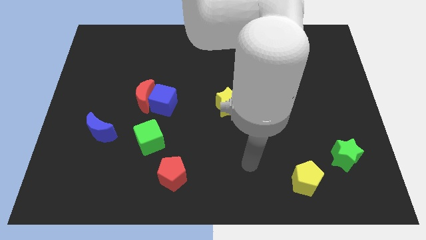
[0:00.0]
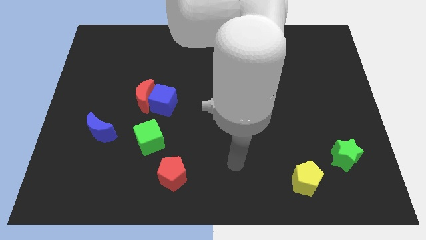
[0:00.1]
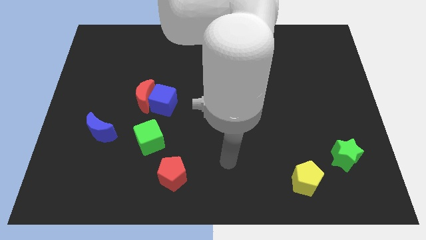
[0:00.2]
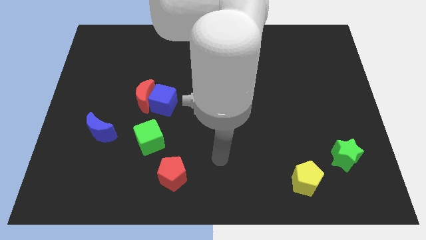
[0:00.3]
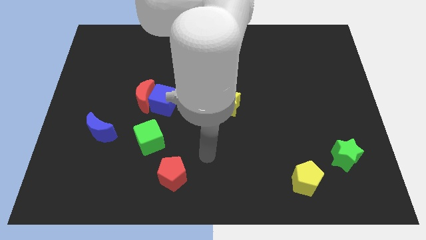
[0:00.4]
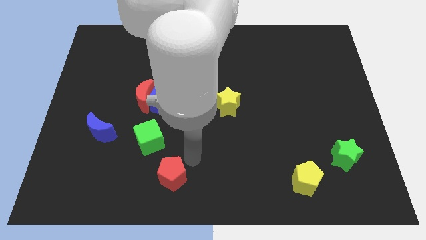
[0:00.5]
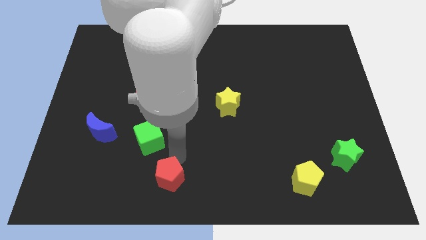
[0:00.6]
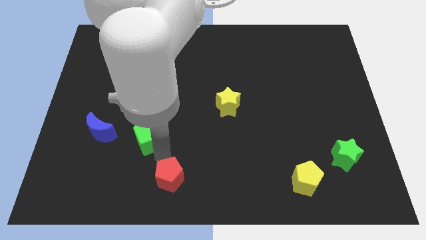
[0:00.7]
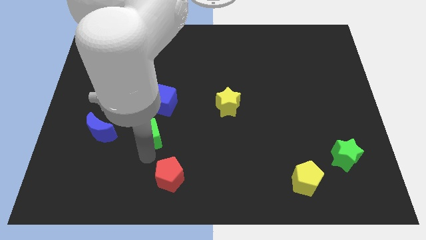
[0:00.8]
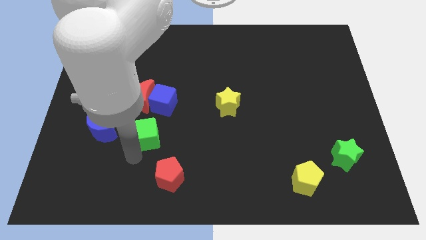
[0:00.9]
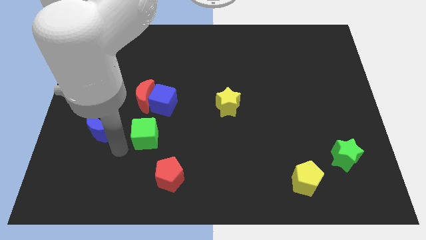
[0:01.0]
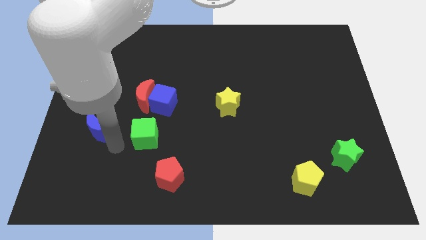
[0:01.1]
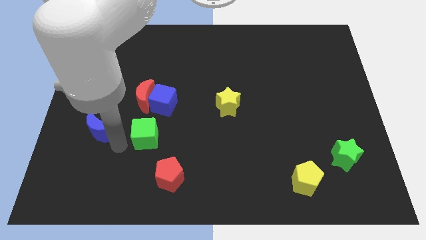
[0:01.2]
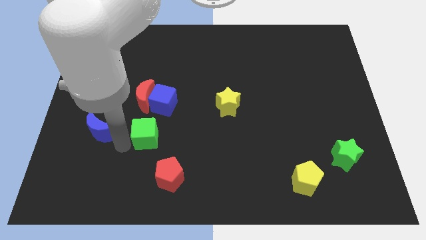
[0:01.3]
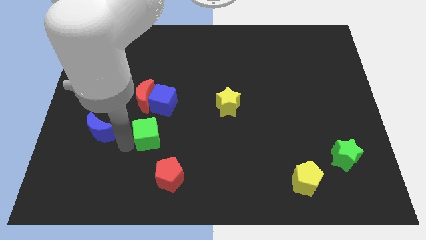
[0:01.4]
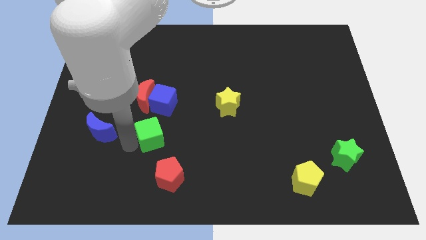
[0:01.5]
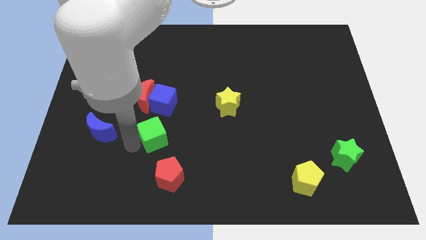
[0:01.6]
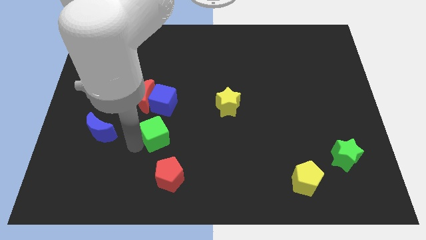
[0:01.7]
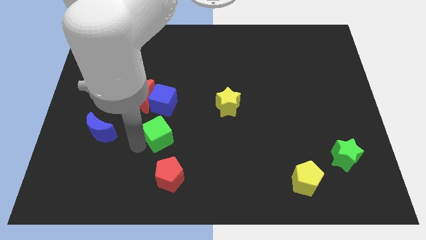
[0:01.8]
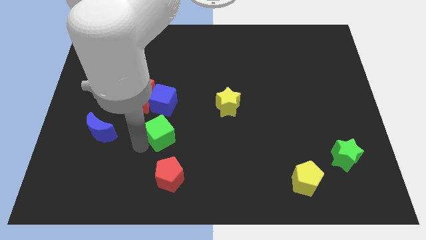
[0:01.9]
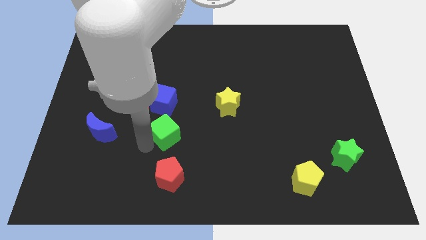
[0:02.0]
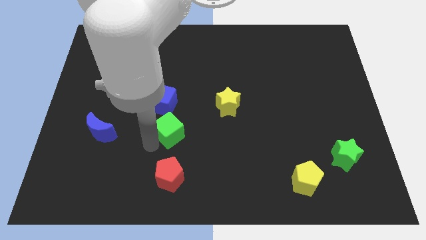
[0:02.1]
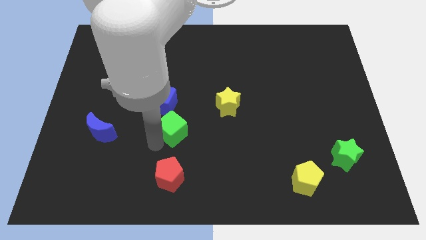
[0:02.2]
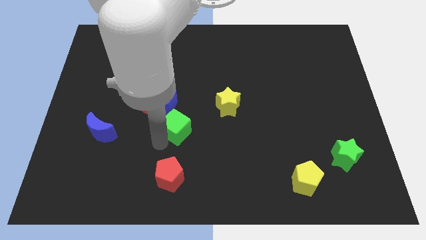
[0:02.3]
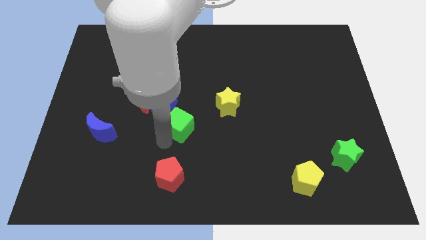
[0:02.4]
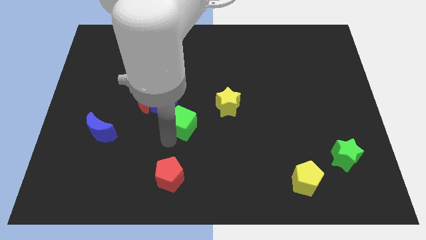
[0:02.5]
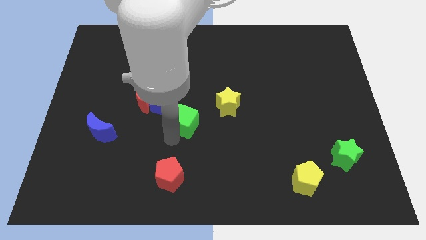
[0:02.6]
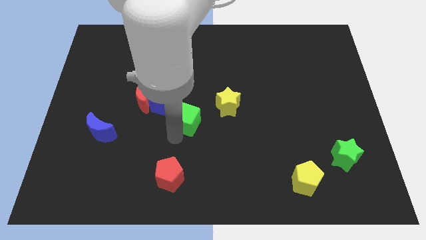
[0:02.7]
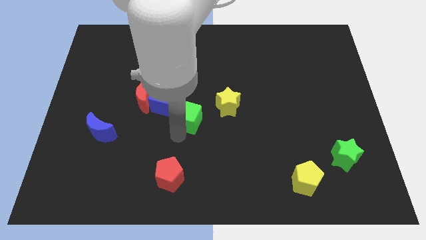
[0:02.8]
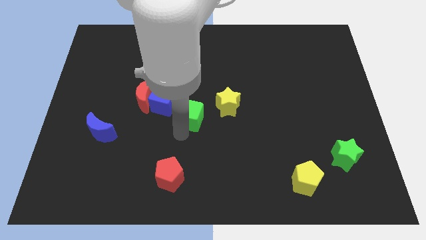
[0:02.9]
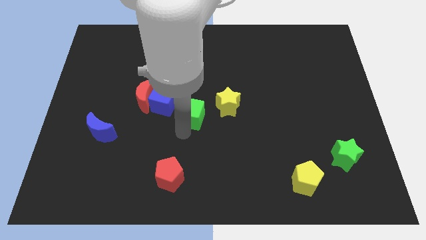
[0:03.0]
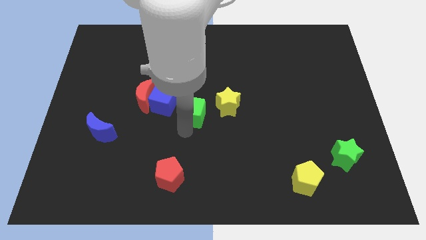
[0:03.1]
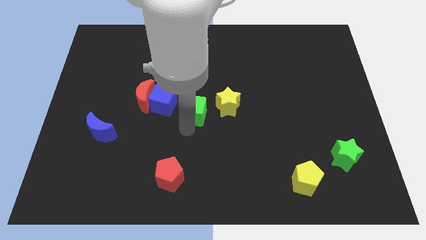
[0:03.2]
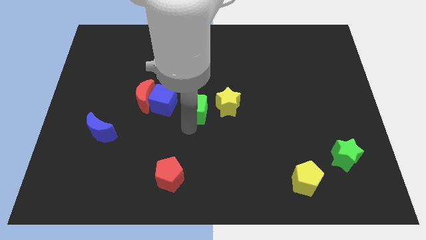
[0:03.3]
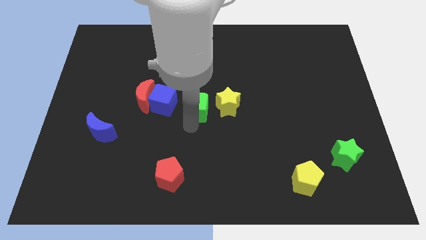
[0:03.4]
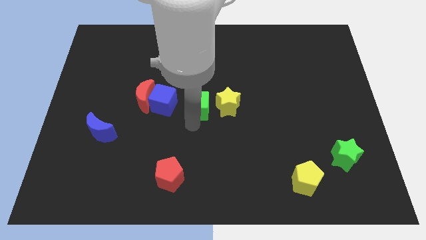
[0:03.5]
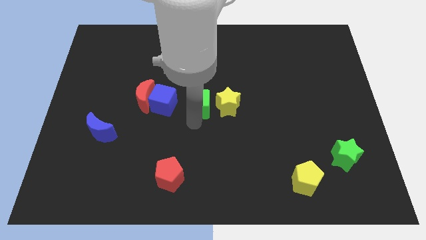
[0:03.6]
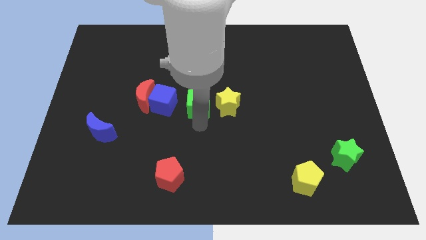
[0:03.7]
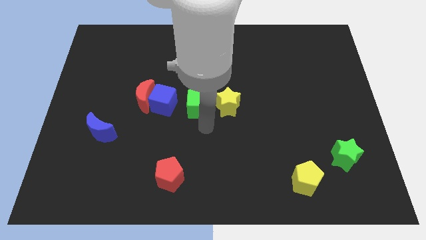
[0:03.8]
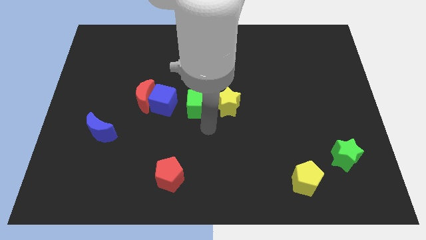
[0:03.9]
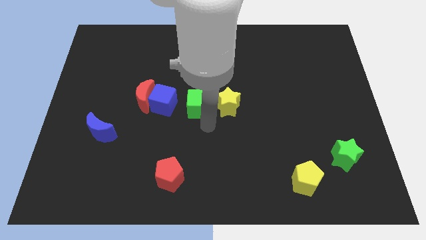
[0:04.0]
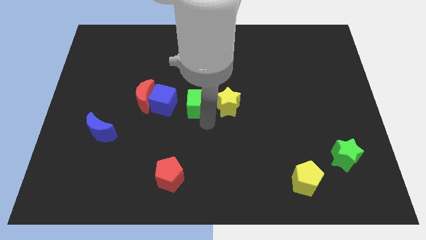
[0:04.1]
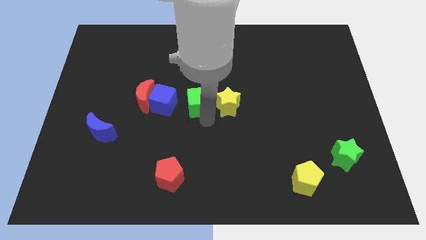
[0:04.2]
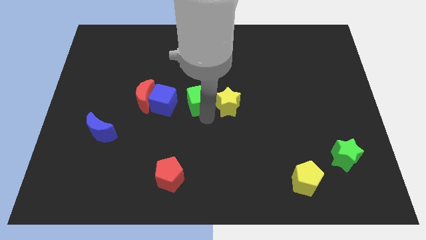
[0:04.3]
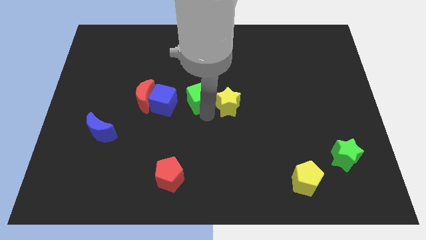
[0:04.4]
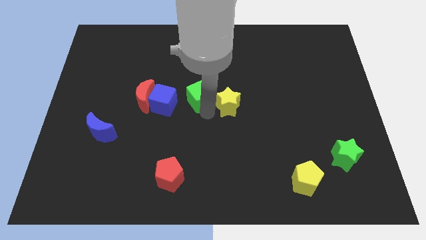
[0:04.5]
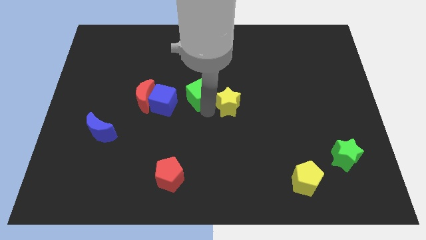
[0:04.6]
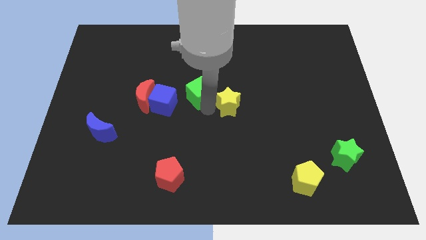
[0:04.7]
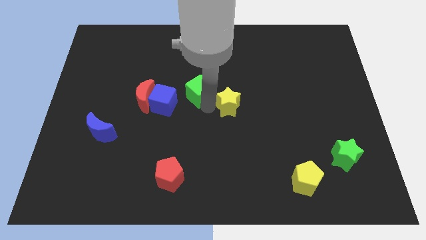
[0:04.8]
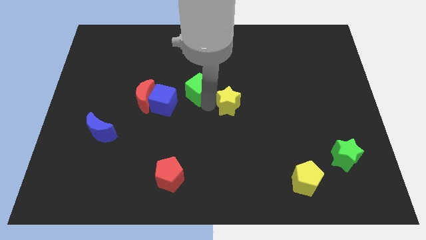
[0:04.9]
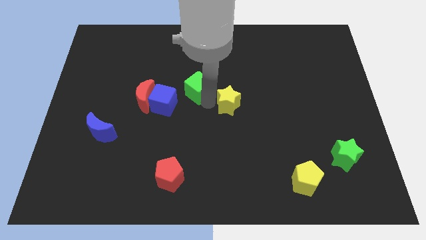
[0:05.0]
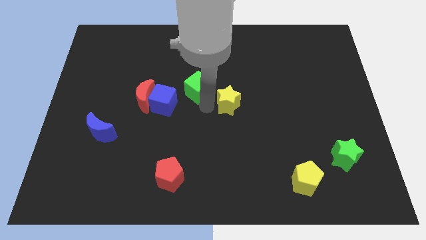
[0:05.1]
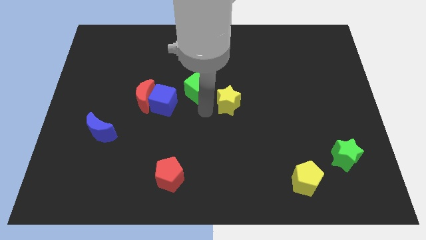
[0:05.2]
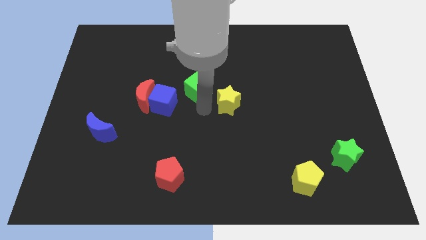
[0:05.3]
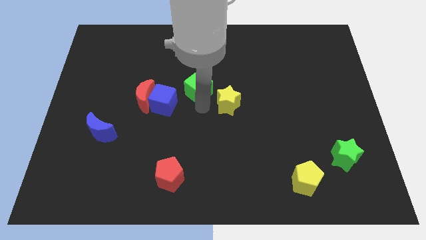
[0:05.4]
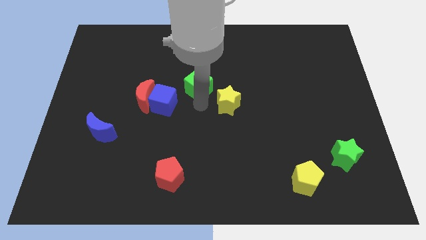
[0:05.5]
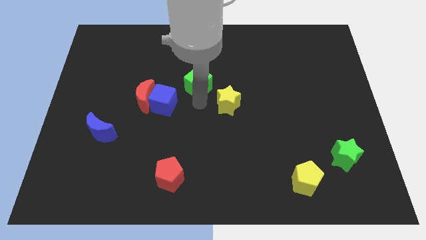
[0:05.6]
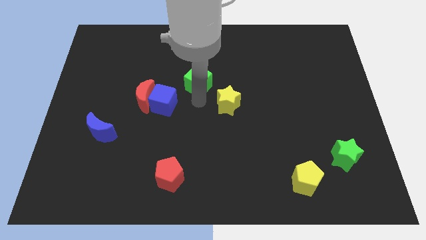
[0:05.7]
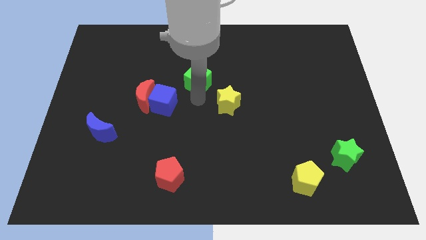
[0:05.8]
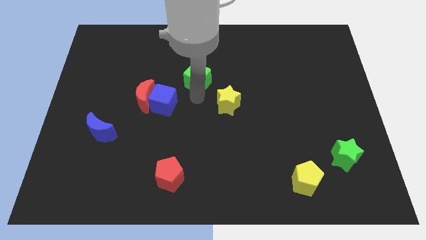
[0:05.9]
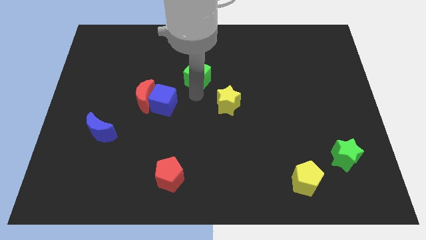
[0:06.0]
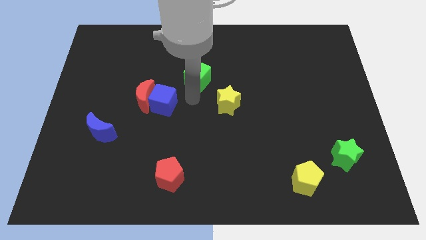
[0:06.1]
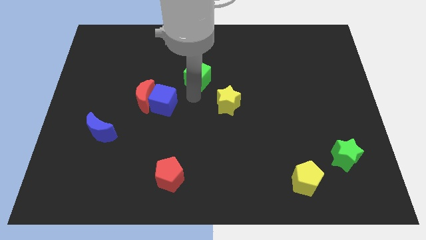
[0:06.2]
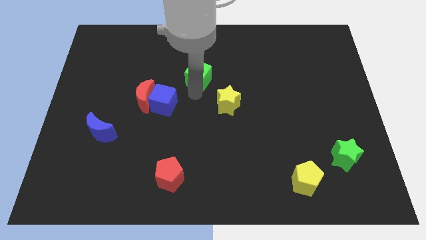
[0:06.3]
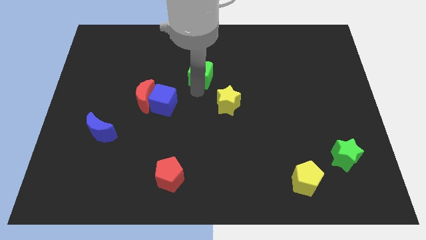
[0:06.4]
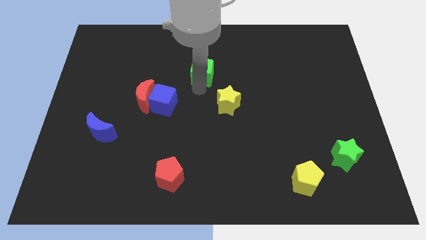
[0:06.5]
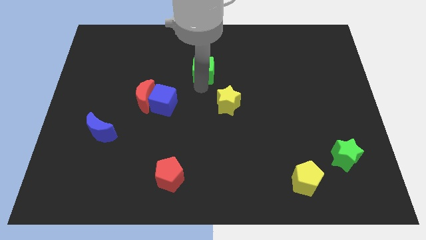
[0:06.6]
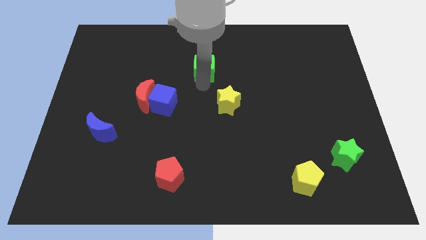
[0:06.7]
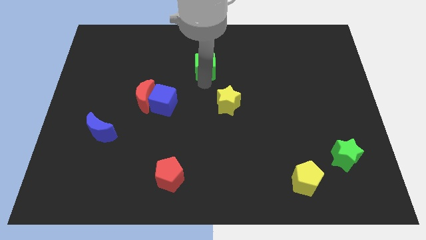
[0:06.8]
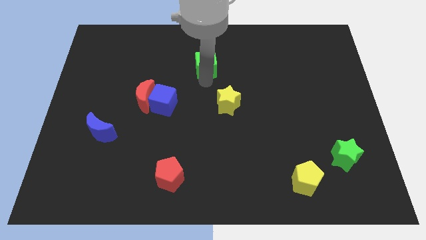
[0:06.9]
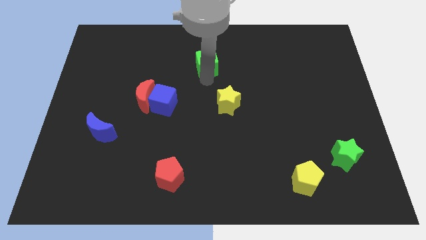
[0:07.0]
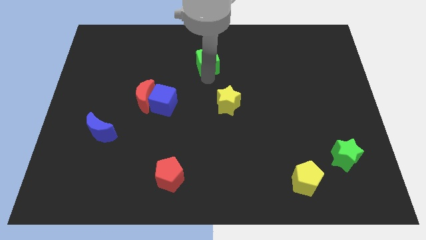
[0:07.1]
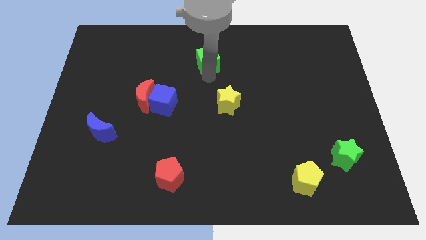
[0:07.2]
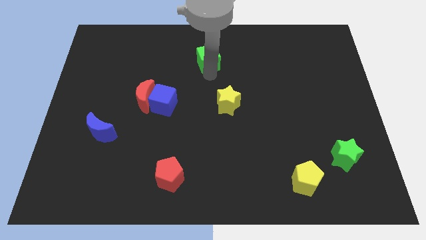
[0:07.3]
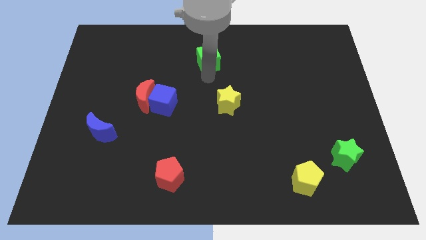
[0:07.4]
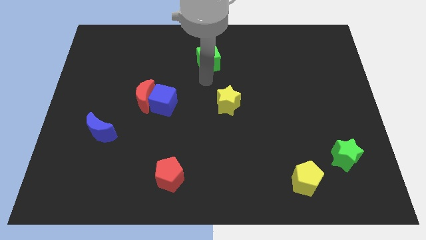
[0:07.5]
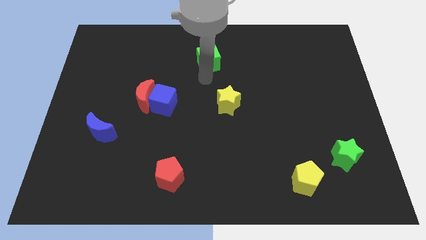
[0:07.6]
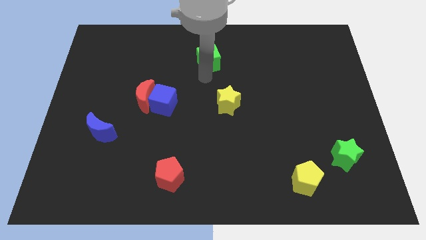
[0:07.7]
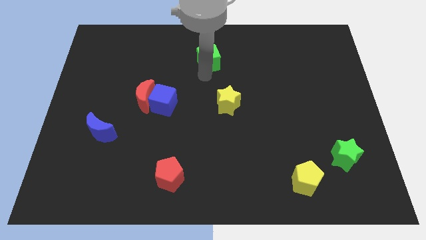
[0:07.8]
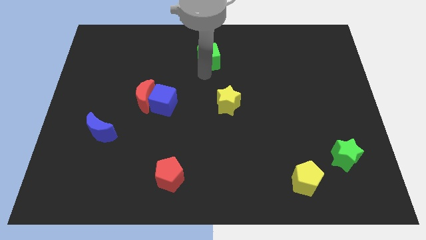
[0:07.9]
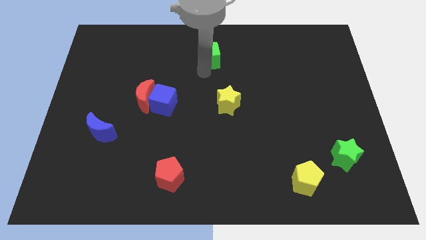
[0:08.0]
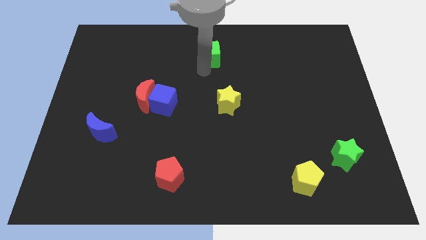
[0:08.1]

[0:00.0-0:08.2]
move the green cube to the towards your base
